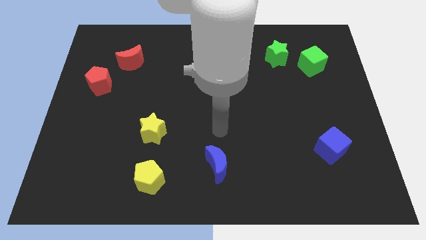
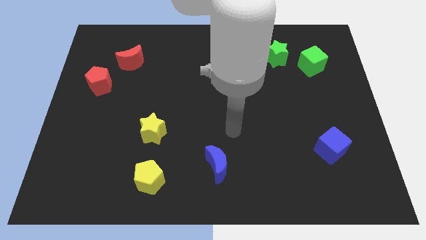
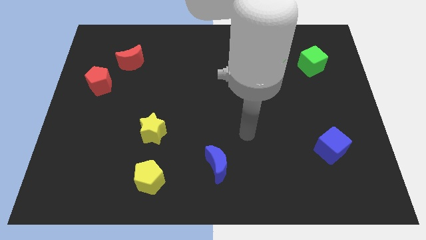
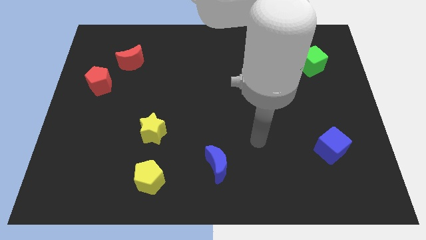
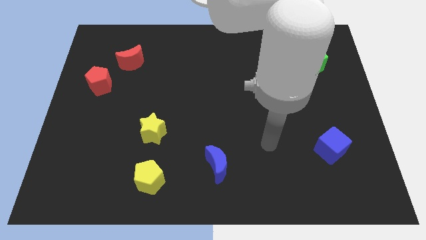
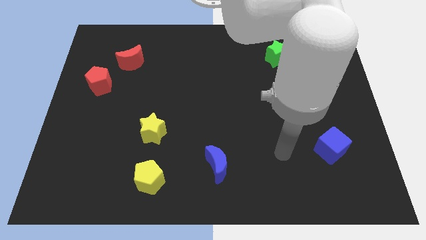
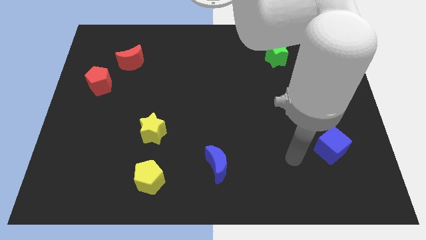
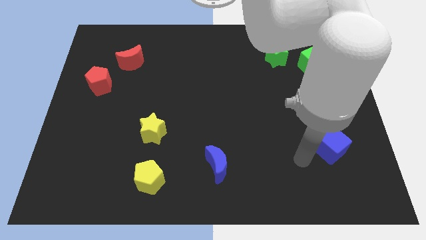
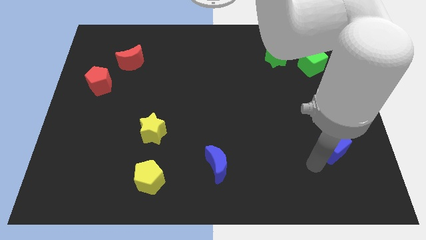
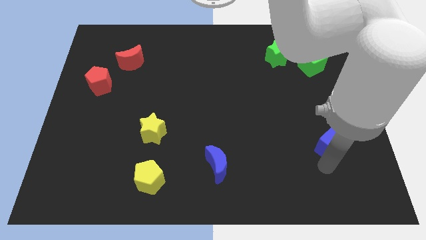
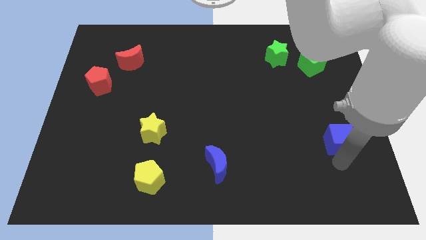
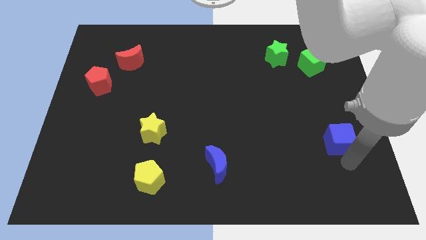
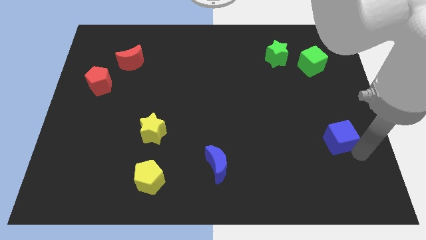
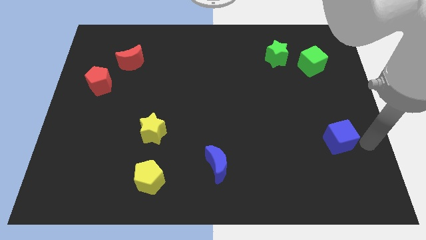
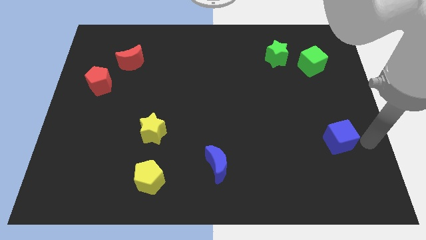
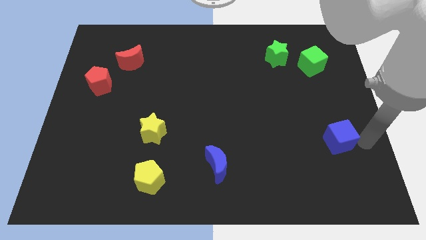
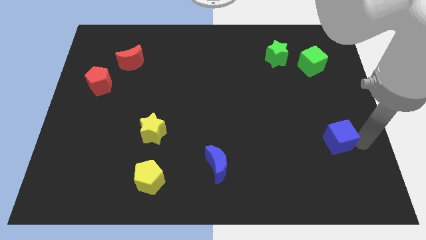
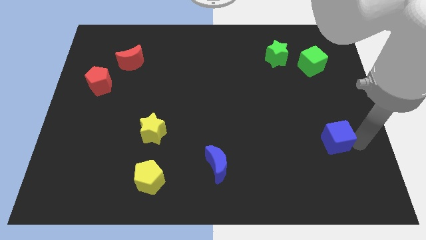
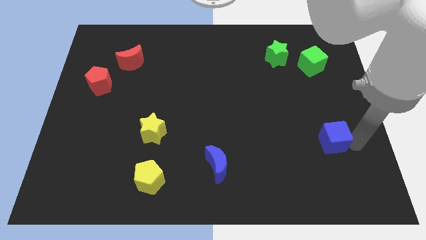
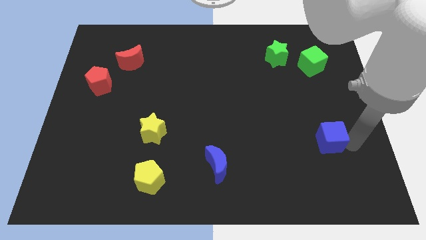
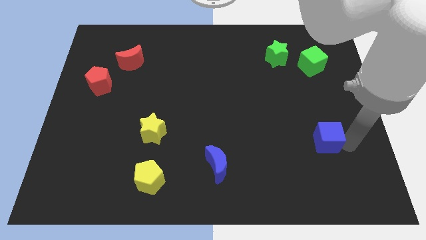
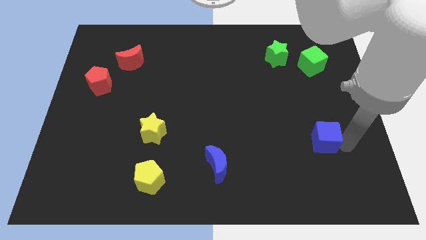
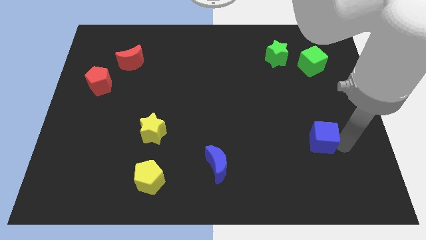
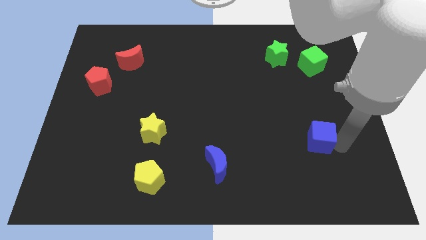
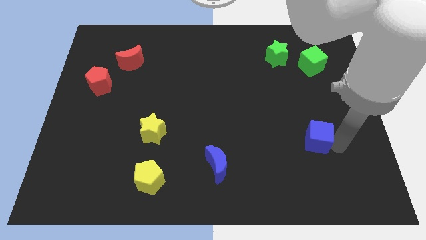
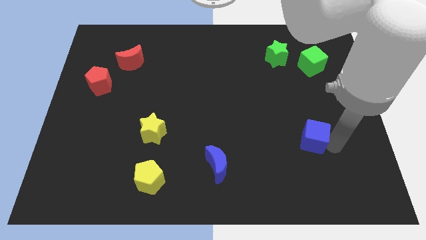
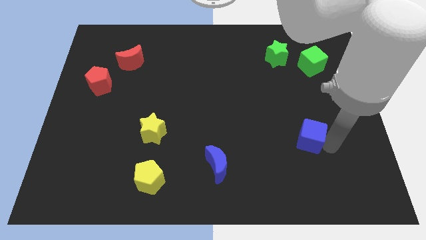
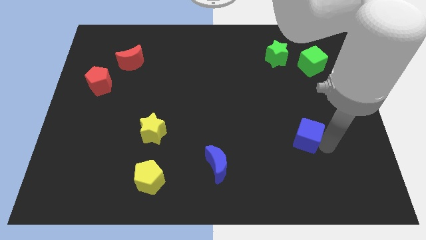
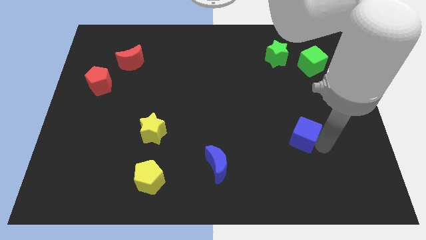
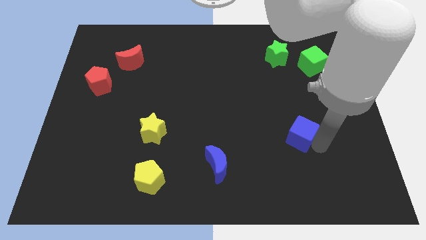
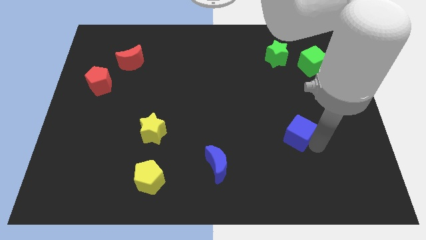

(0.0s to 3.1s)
push the blue cube a little bit up and left diagonally

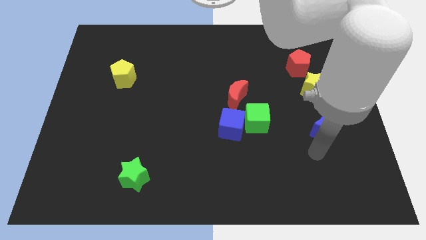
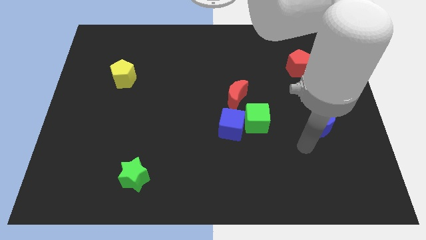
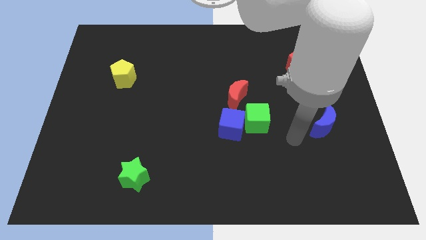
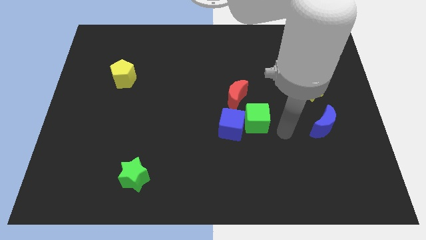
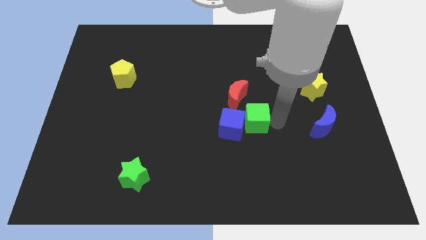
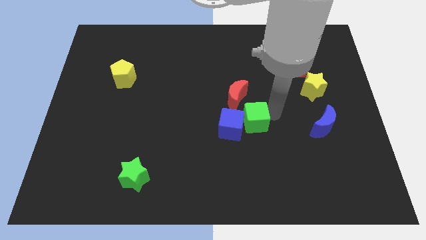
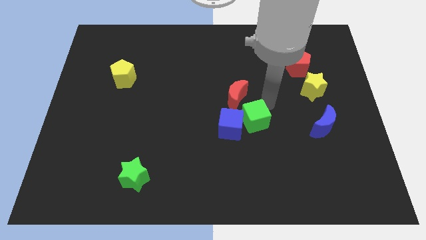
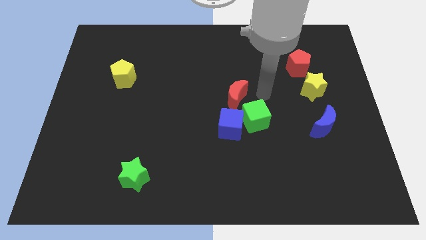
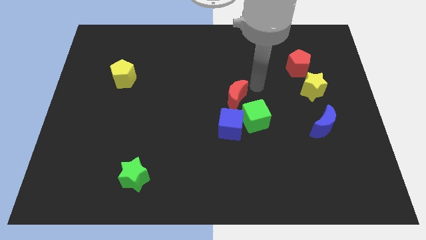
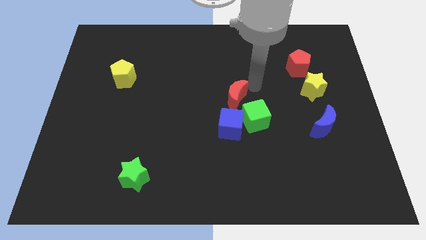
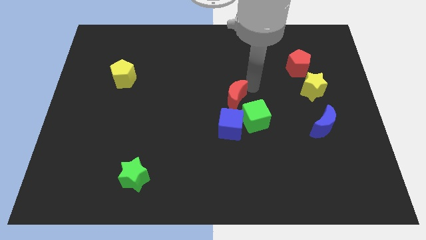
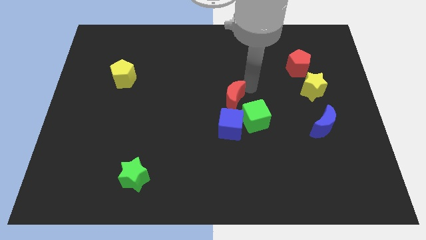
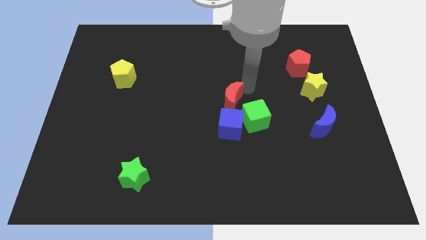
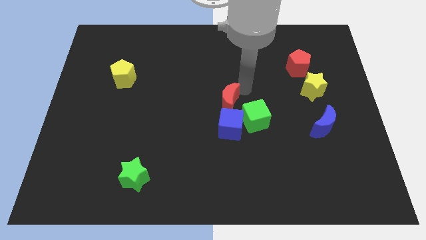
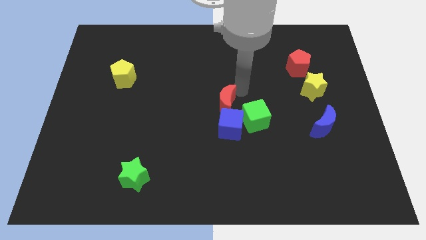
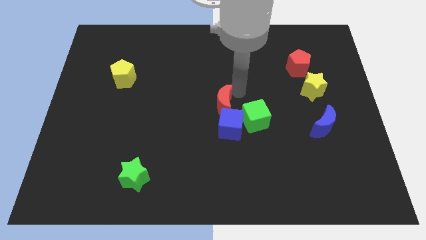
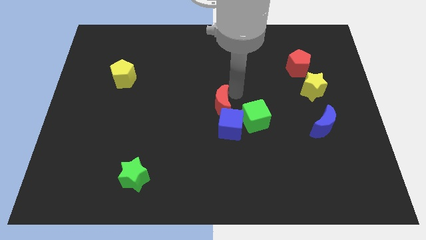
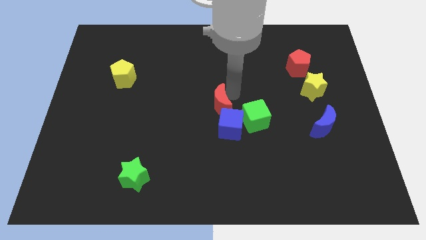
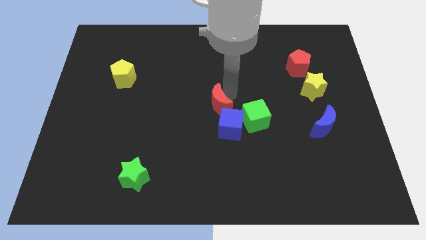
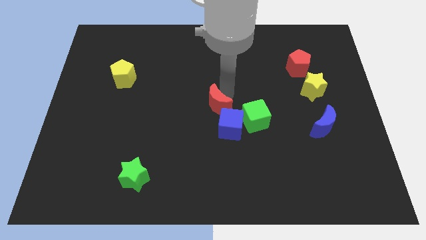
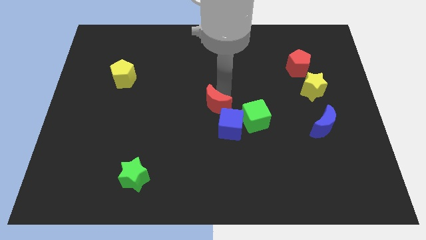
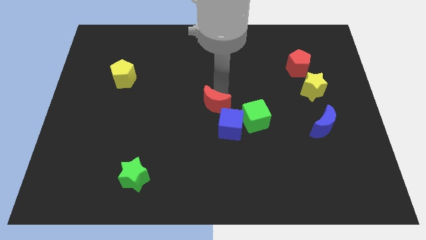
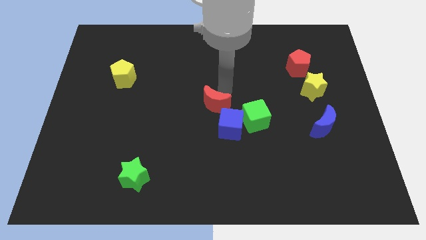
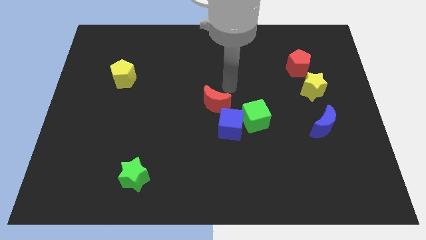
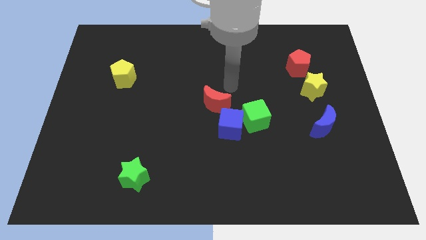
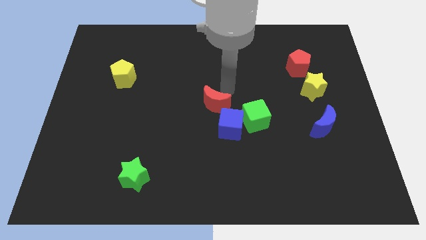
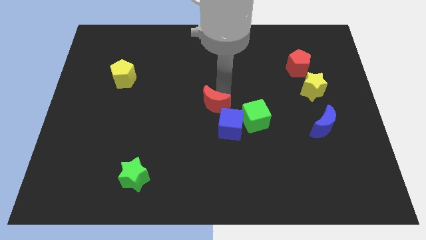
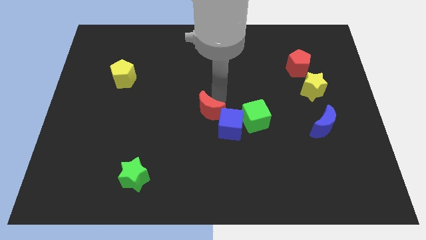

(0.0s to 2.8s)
slightly move the red moon downwards and left diagonally

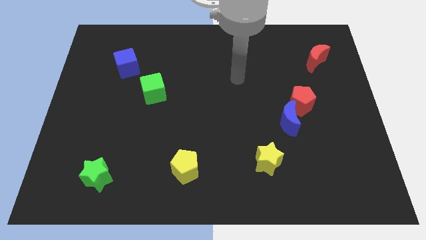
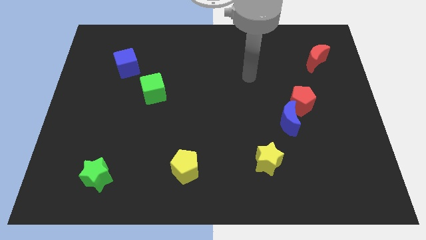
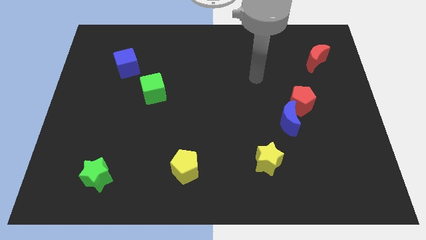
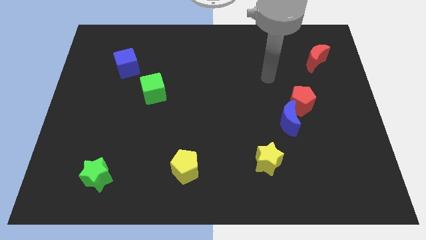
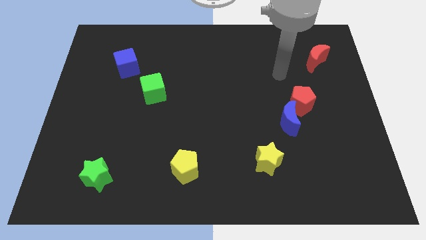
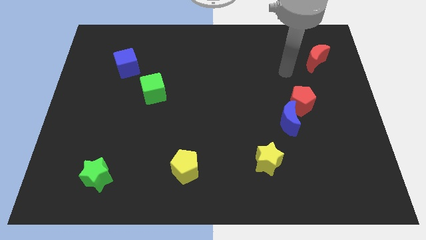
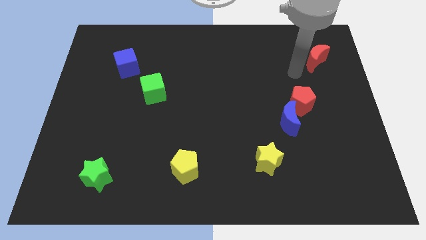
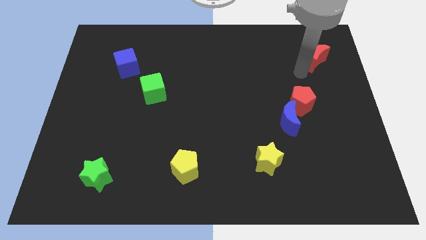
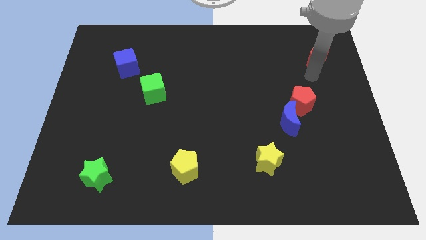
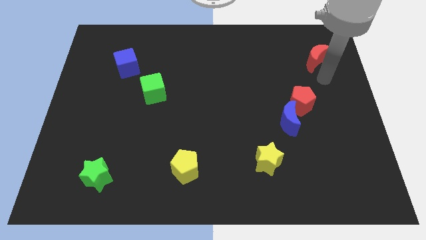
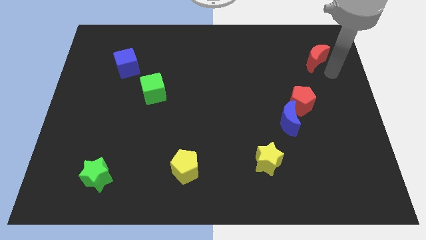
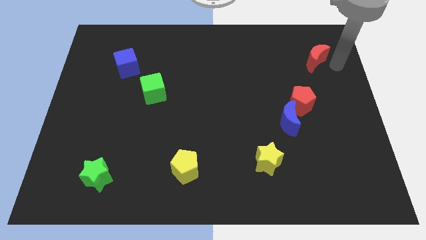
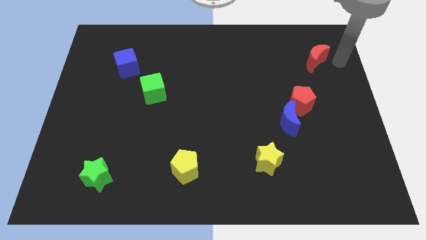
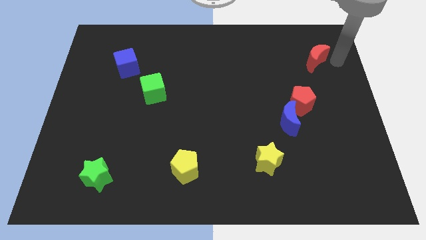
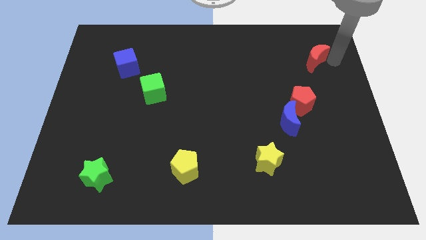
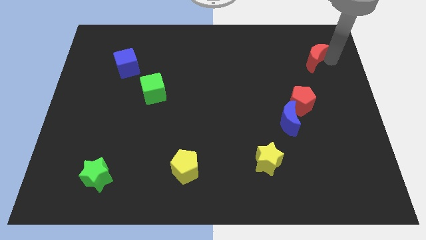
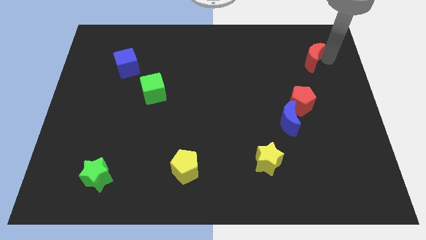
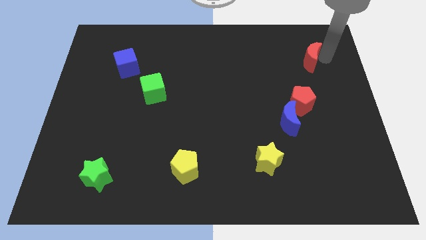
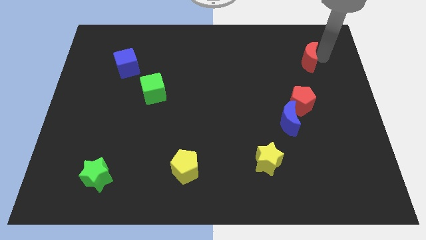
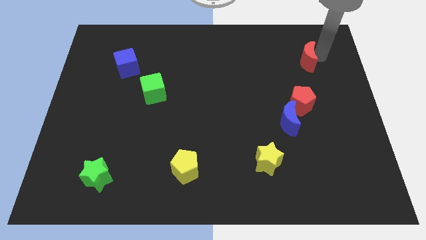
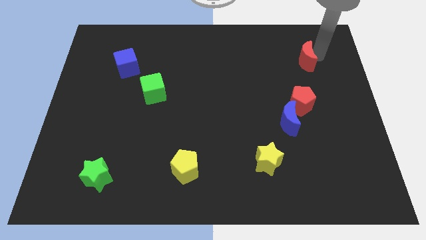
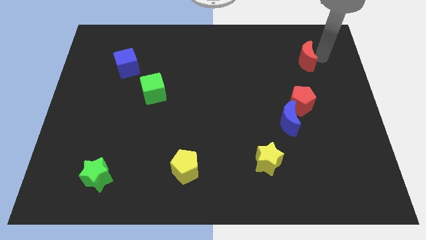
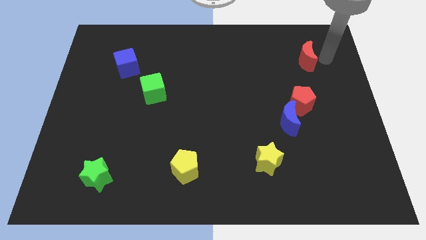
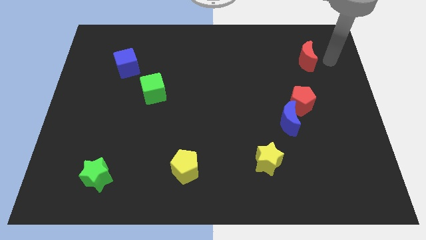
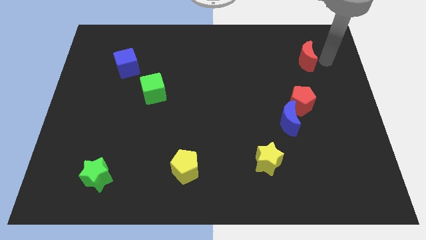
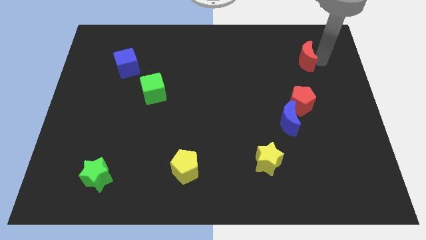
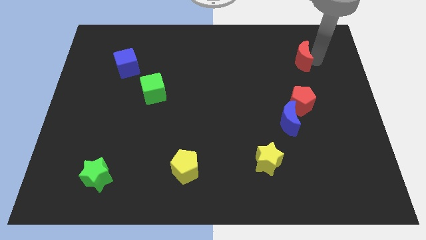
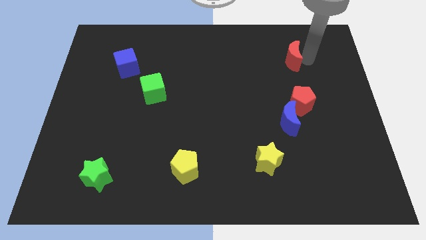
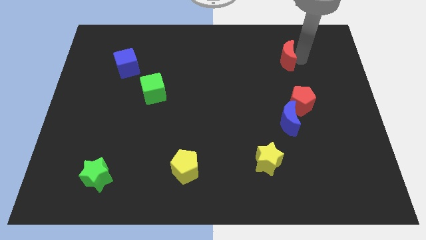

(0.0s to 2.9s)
push the red moon left a little bit
